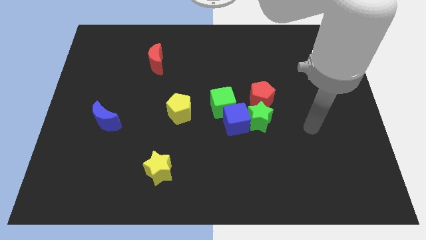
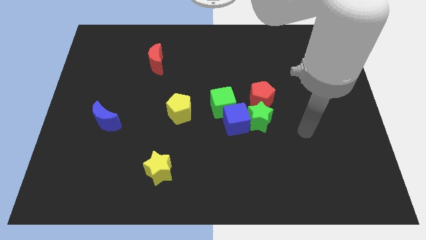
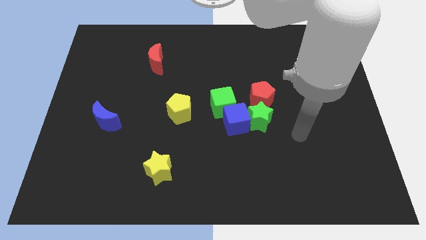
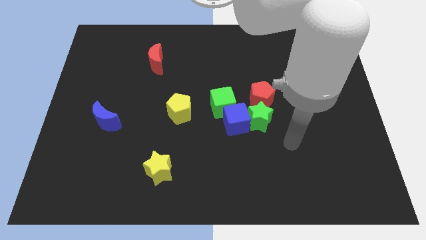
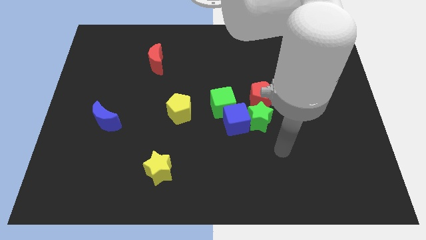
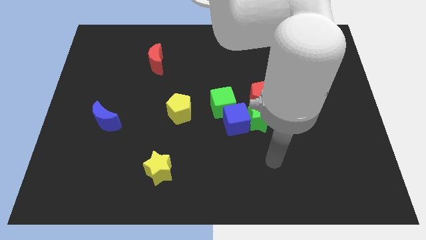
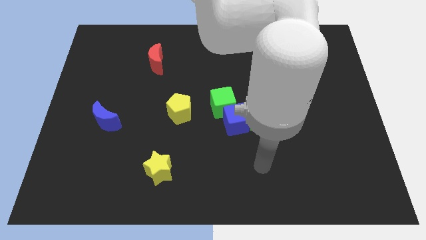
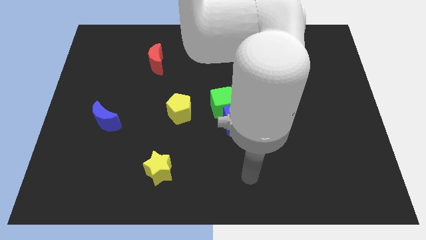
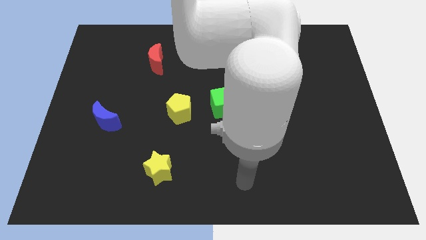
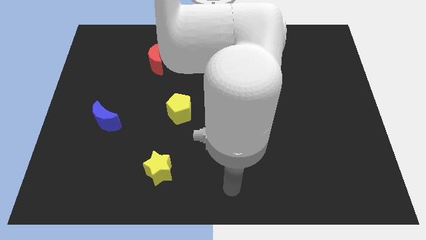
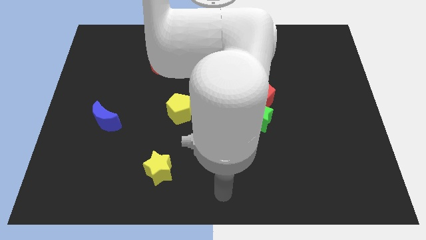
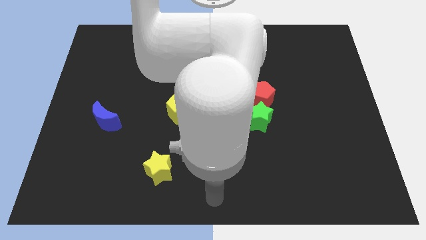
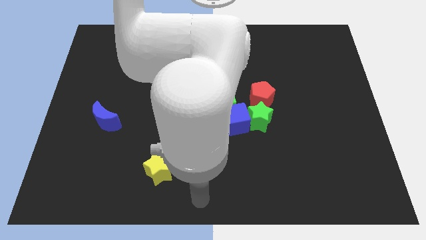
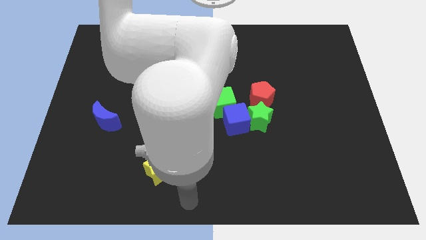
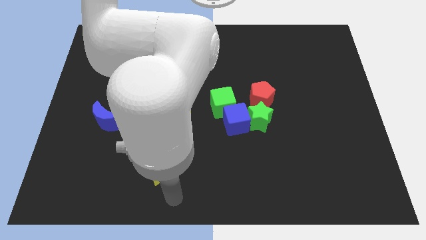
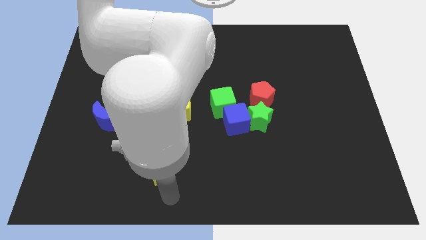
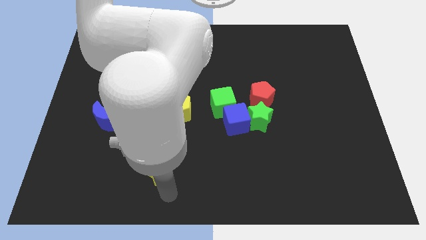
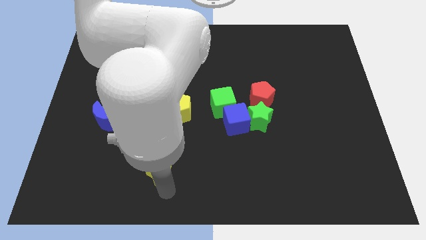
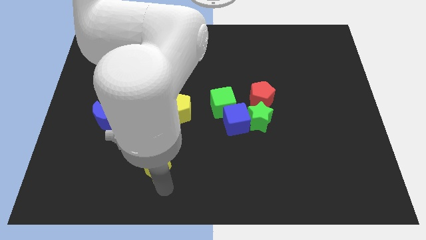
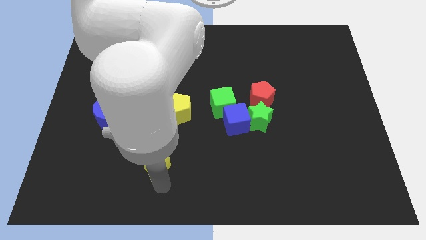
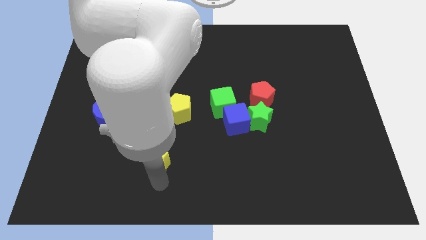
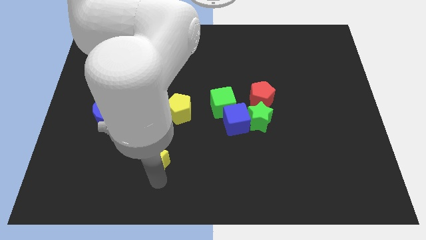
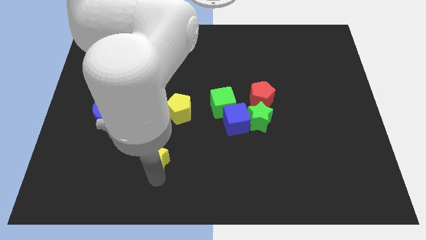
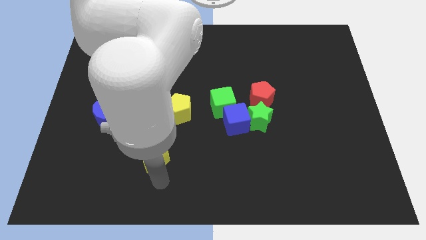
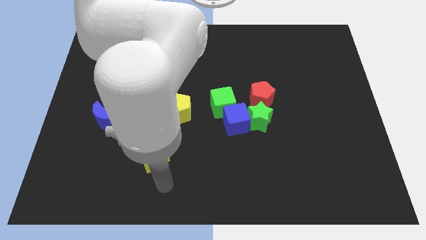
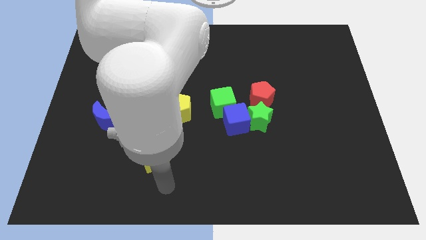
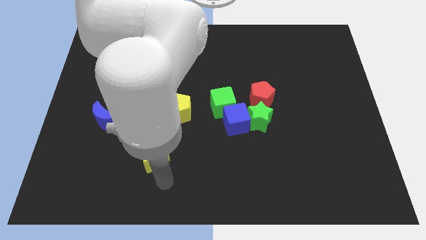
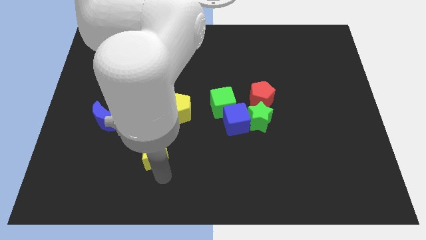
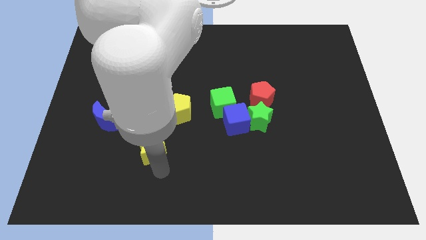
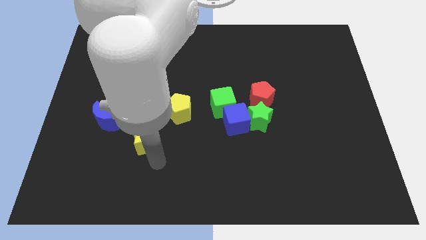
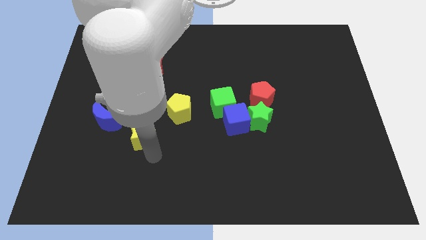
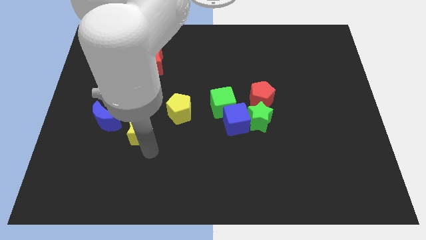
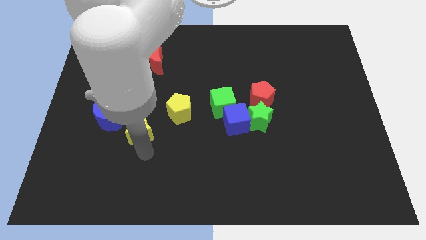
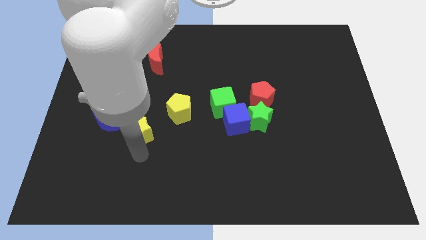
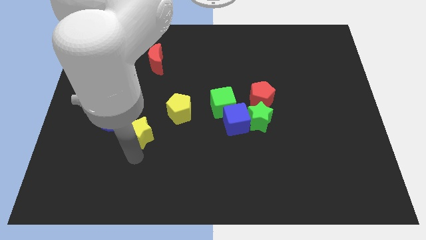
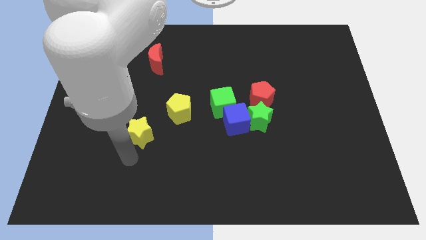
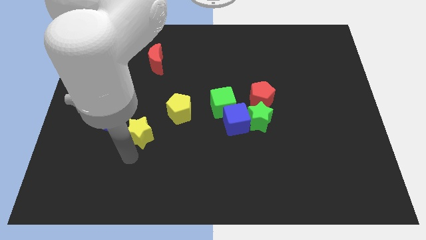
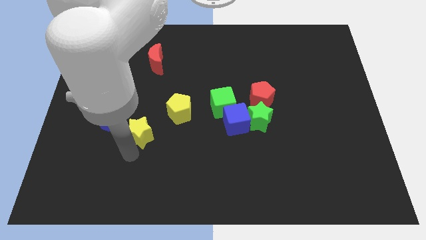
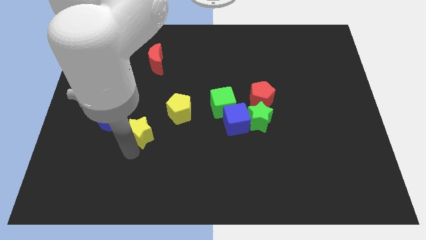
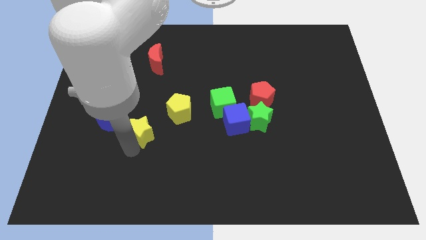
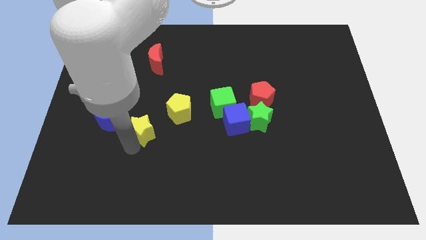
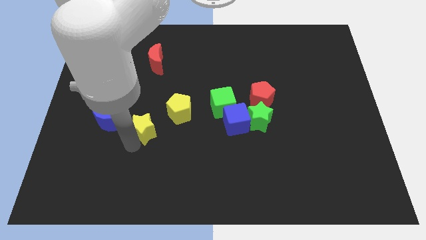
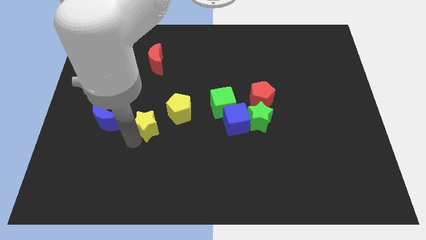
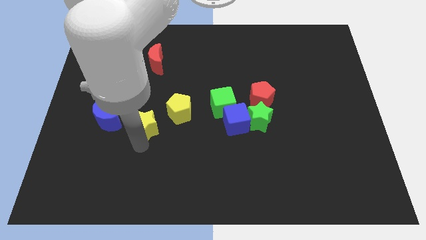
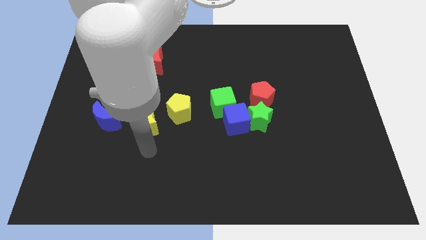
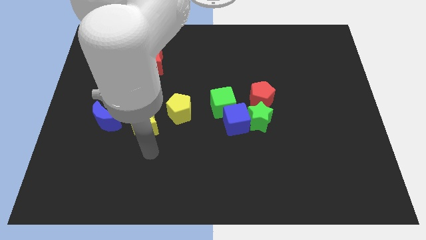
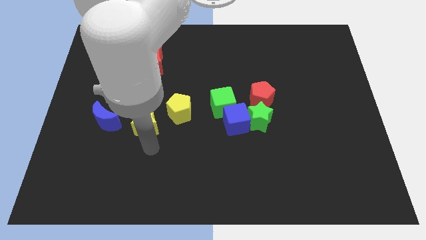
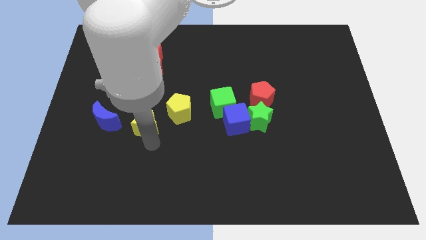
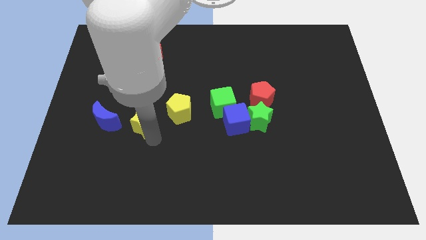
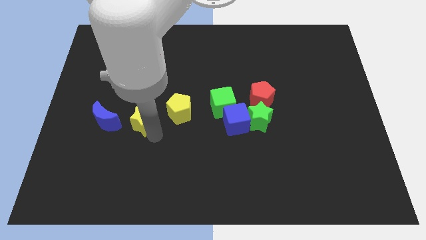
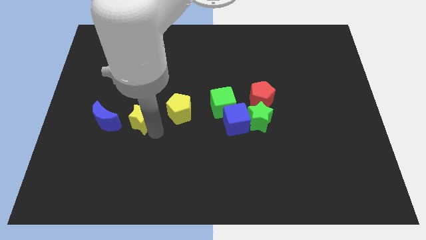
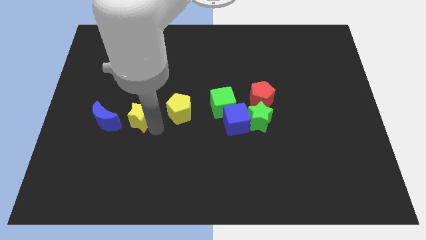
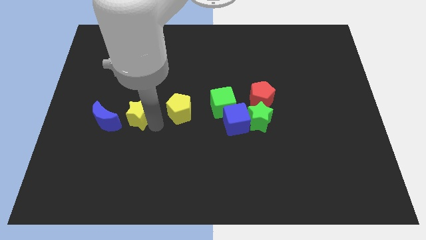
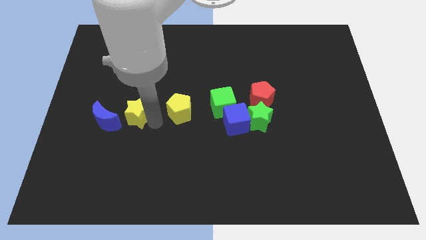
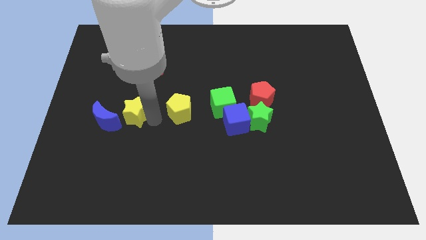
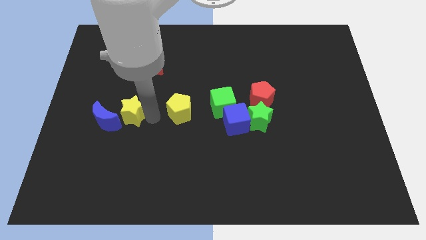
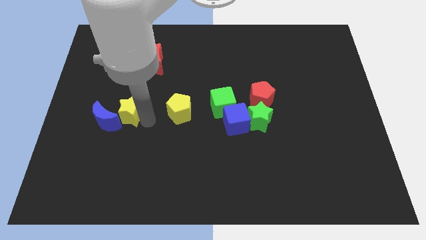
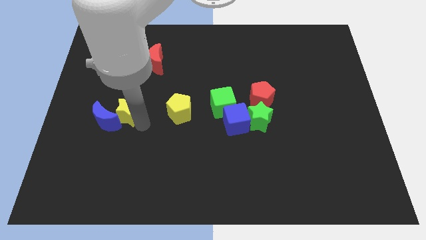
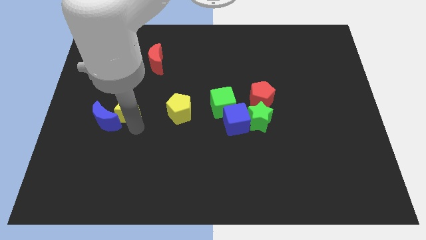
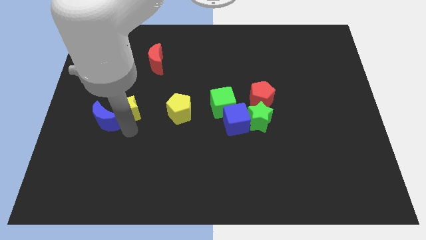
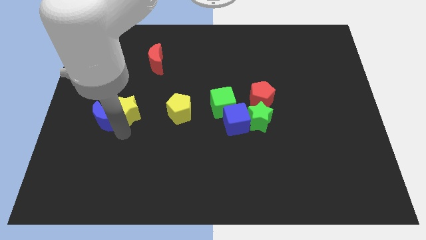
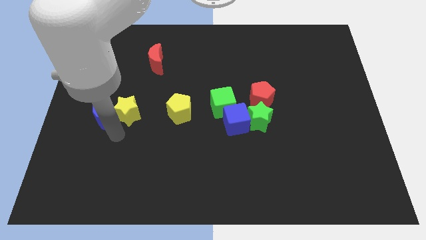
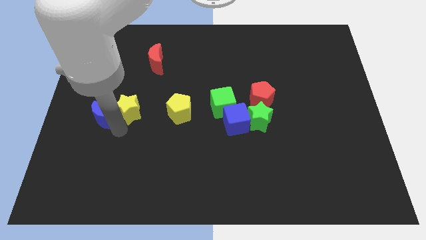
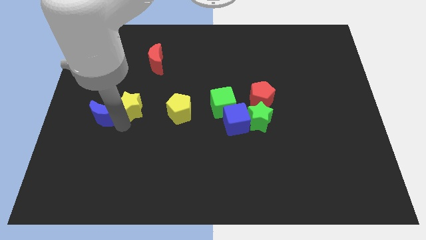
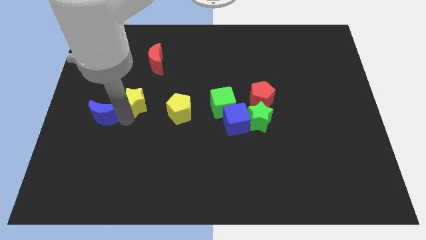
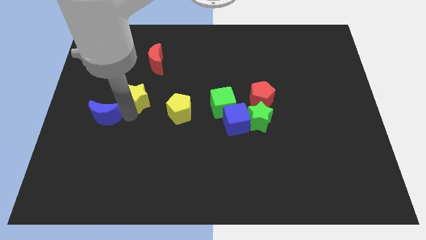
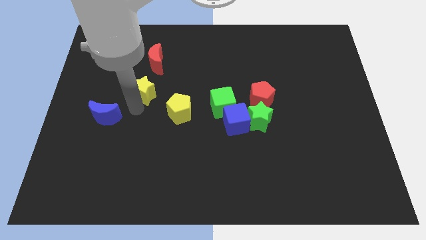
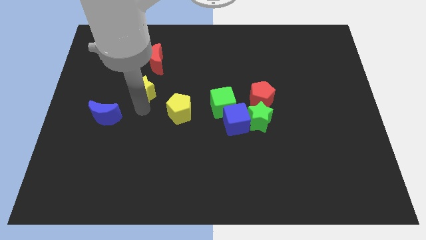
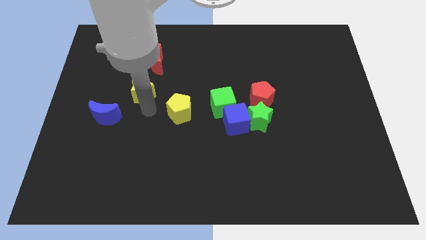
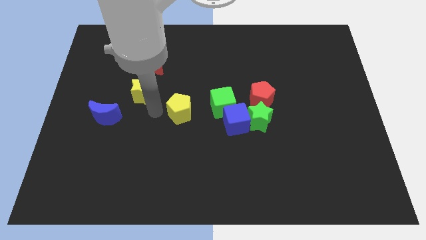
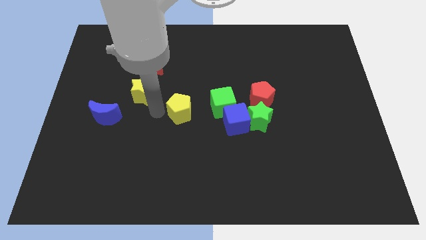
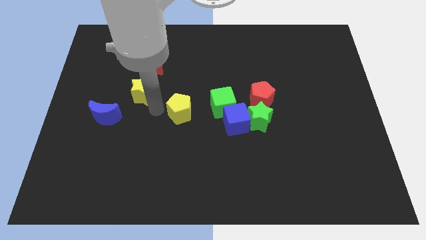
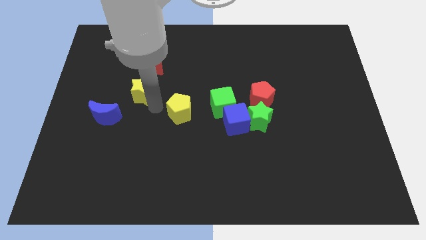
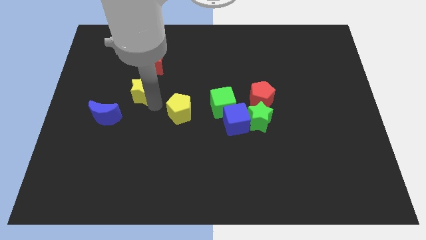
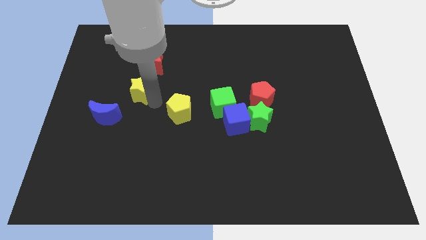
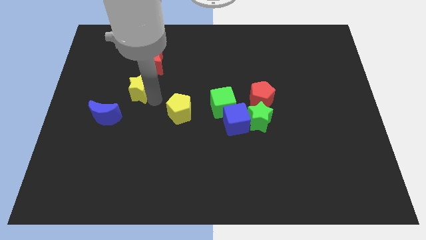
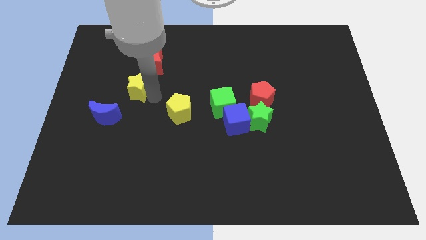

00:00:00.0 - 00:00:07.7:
put the yellow star to the bottom left side of the red moon

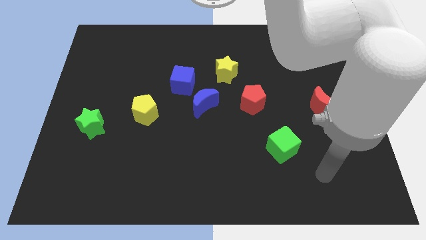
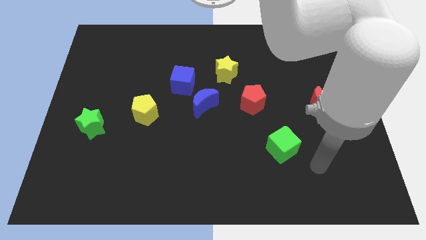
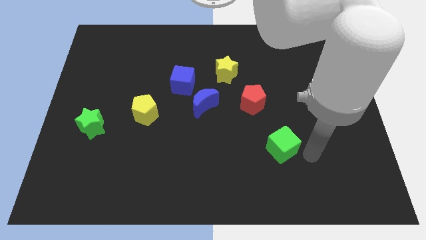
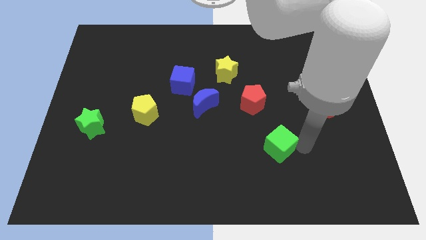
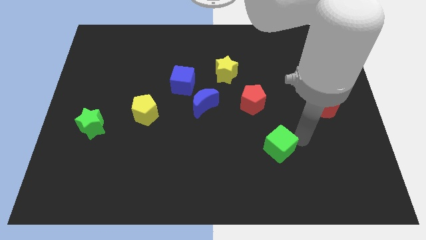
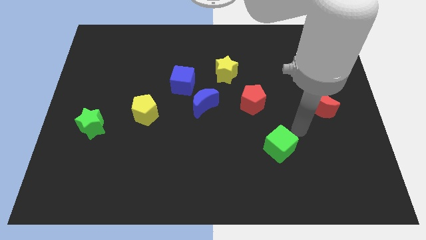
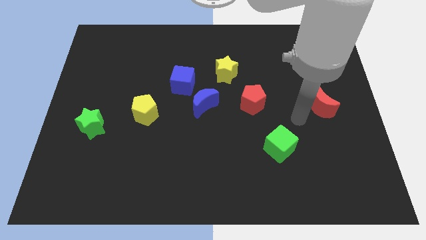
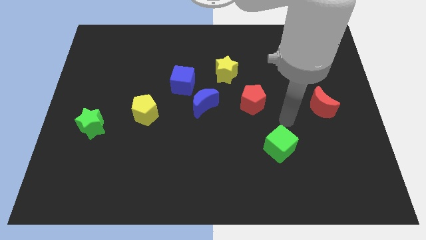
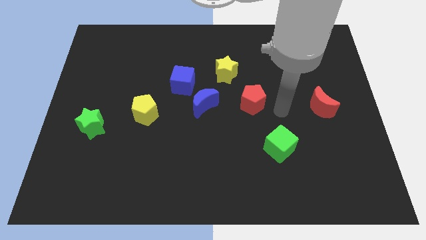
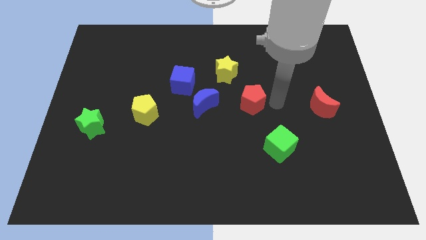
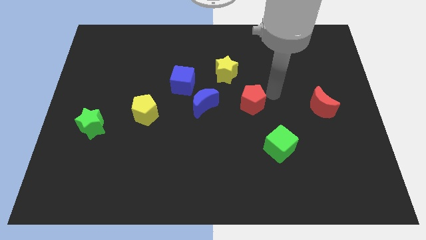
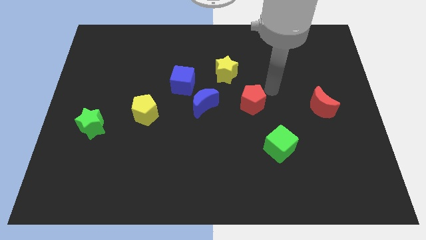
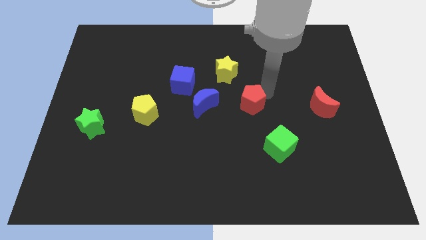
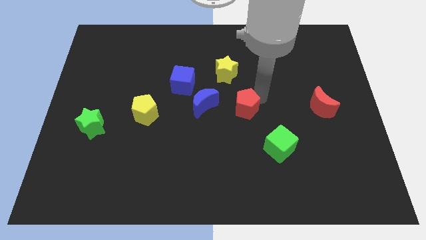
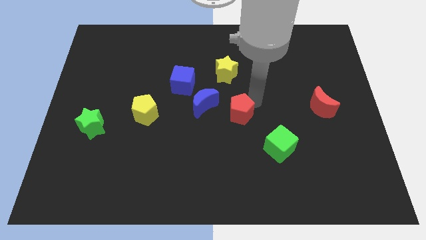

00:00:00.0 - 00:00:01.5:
slide the red pentagon to the bottom right of the blue moon
